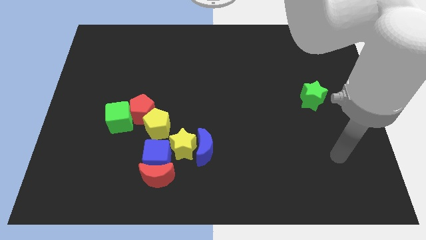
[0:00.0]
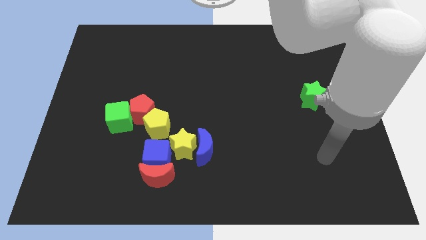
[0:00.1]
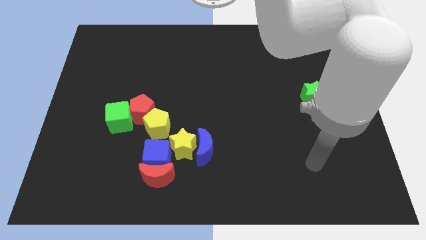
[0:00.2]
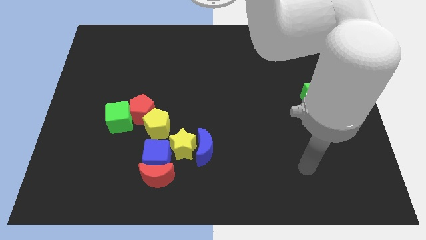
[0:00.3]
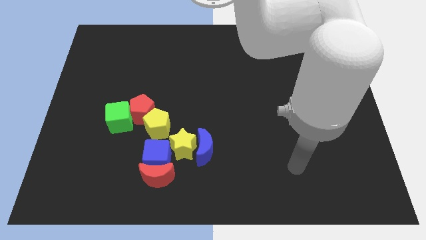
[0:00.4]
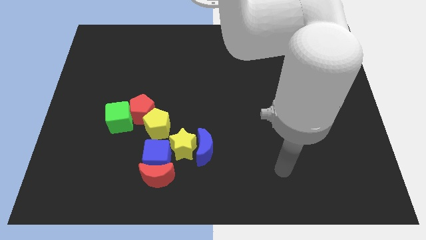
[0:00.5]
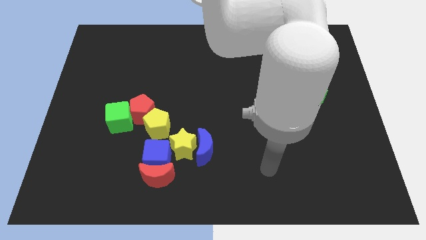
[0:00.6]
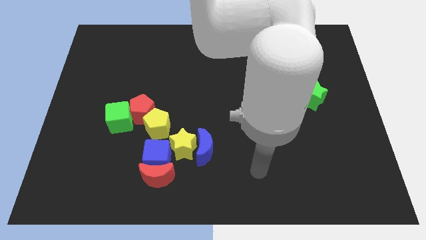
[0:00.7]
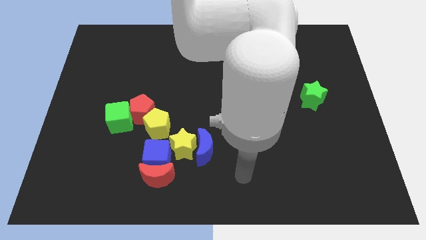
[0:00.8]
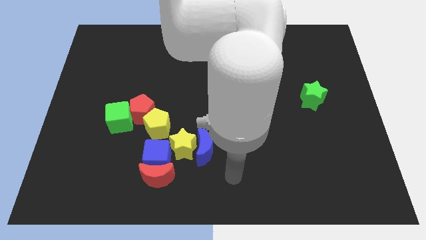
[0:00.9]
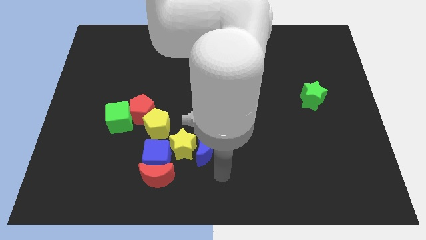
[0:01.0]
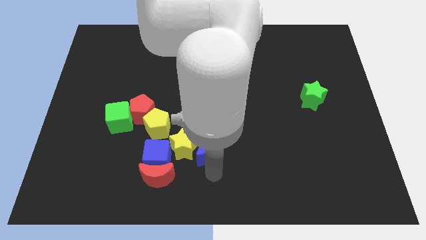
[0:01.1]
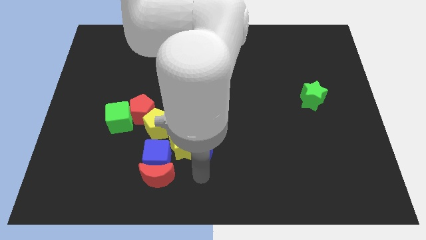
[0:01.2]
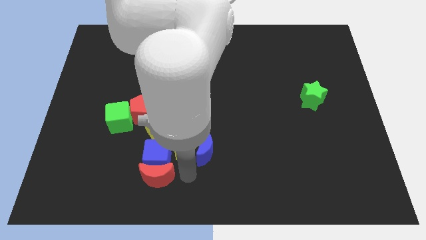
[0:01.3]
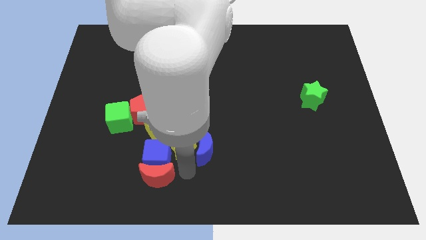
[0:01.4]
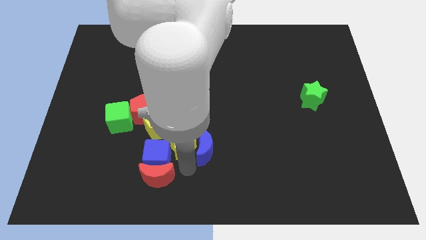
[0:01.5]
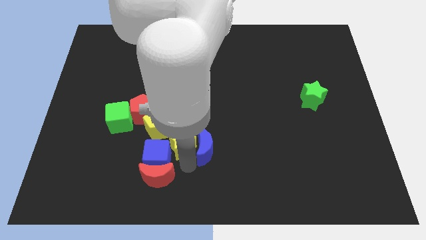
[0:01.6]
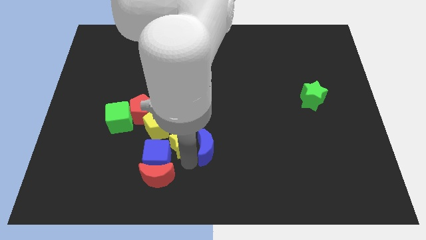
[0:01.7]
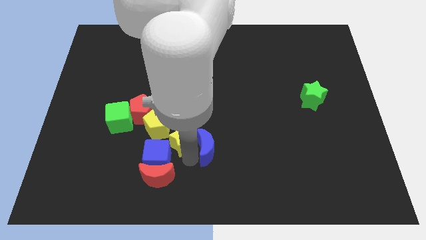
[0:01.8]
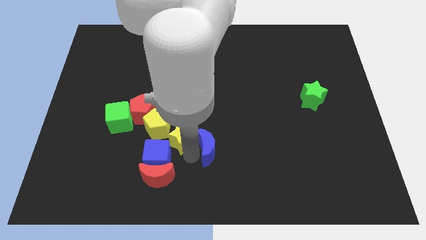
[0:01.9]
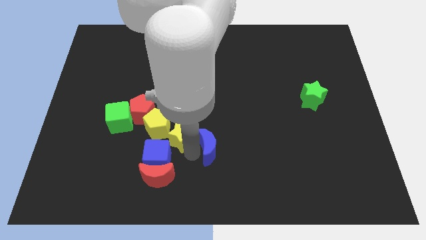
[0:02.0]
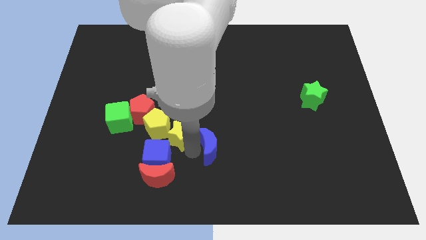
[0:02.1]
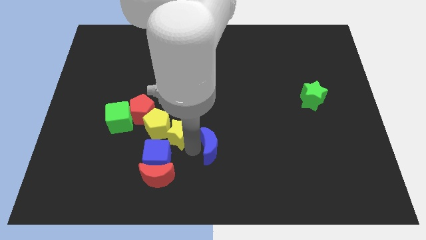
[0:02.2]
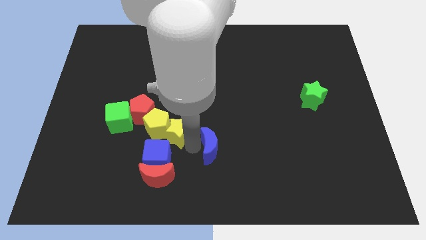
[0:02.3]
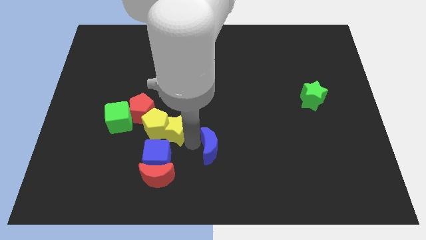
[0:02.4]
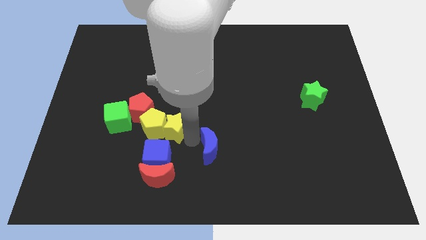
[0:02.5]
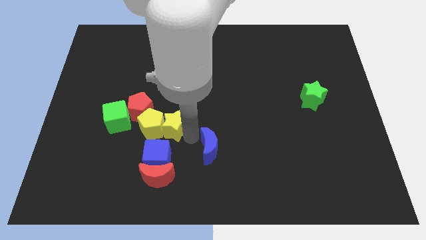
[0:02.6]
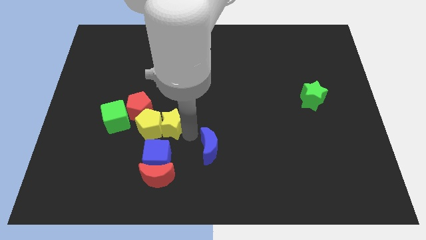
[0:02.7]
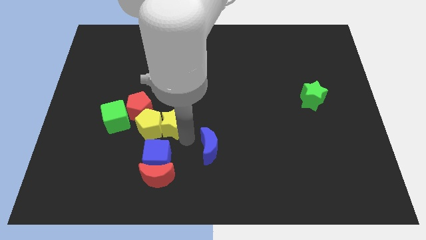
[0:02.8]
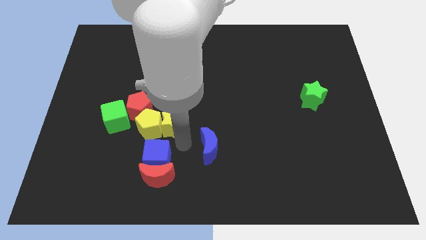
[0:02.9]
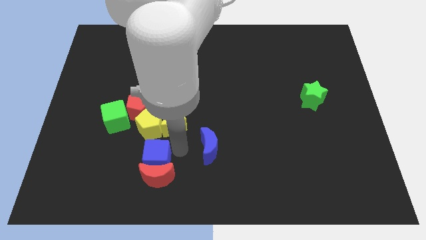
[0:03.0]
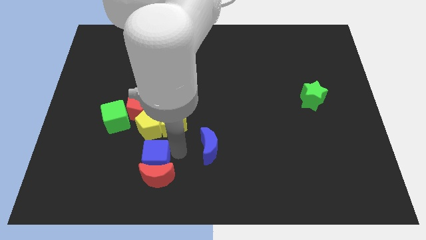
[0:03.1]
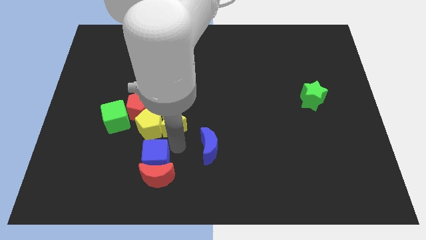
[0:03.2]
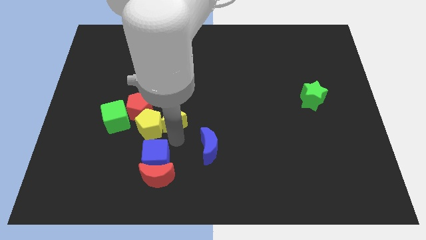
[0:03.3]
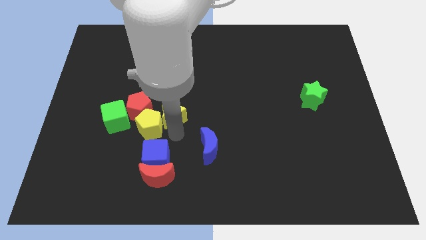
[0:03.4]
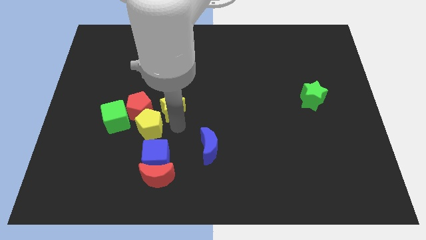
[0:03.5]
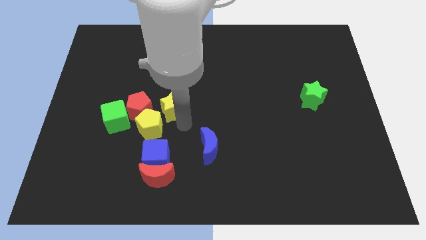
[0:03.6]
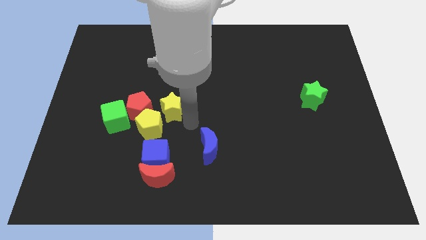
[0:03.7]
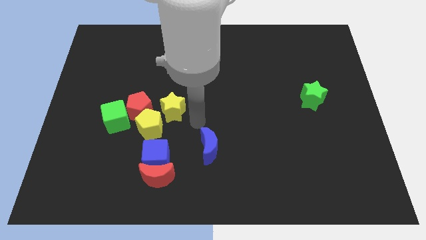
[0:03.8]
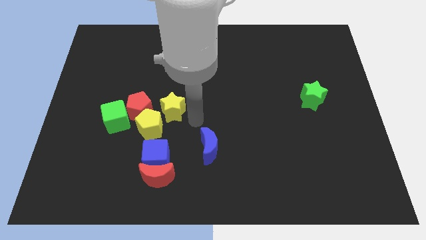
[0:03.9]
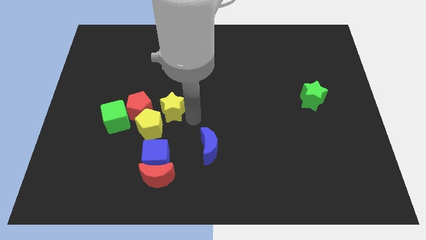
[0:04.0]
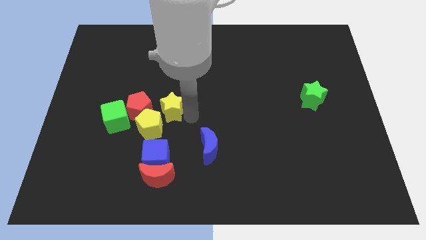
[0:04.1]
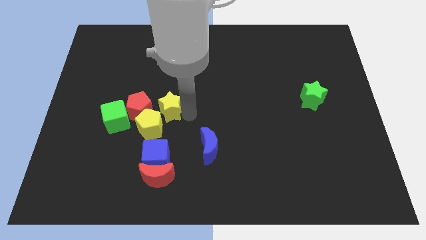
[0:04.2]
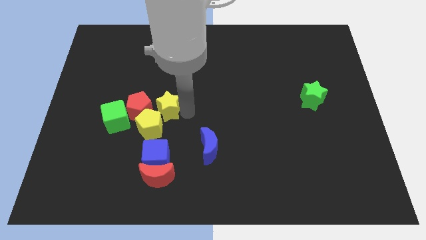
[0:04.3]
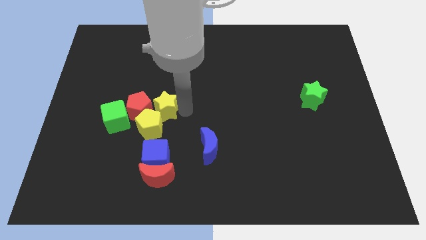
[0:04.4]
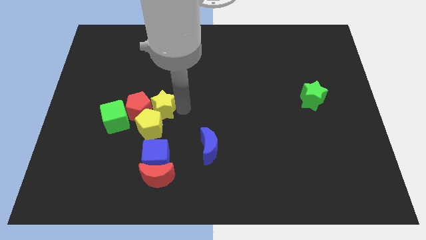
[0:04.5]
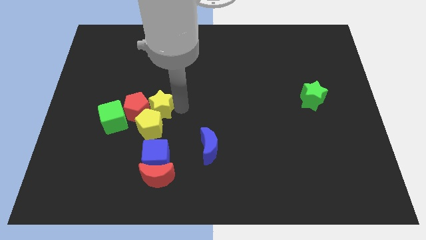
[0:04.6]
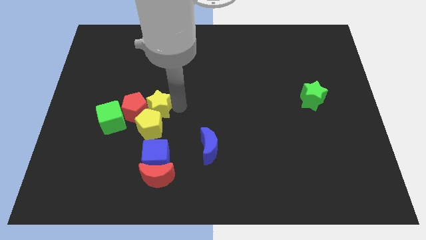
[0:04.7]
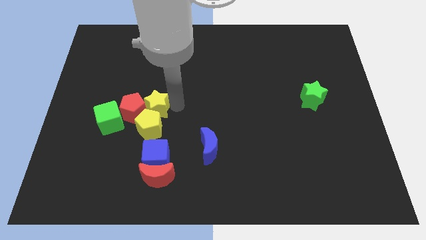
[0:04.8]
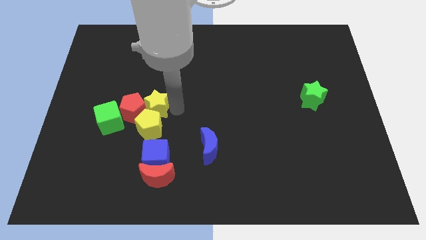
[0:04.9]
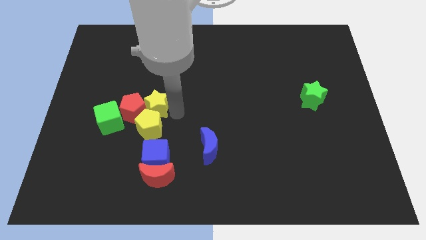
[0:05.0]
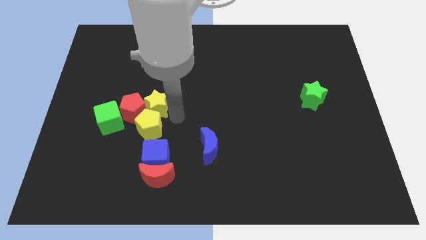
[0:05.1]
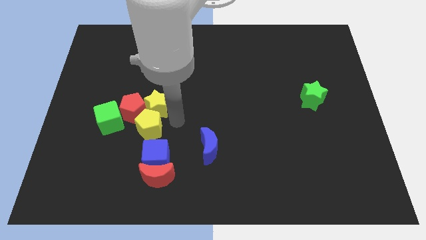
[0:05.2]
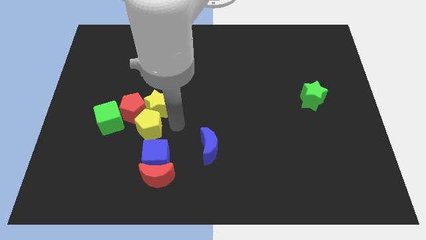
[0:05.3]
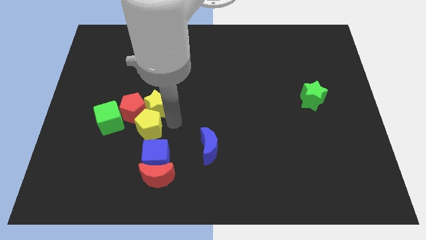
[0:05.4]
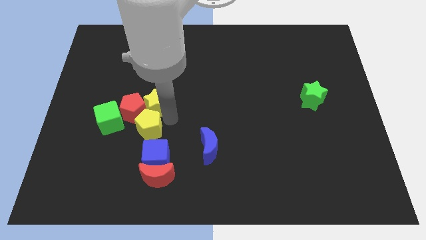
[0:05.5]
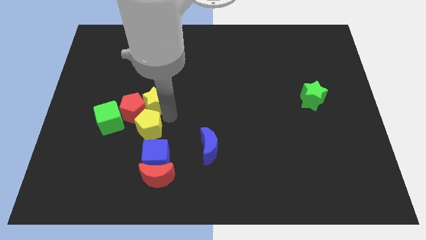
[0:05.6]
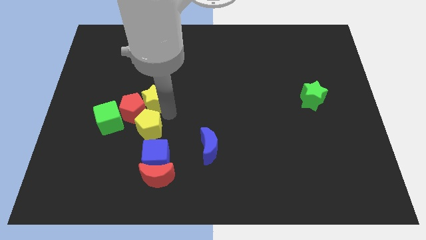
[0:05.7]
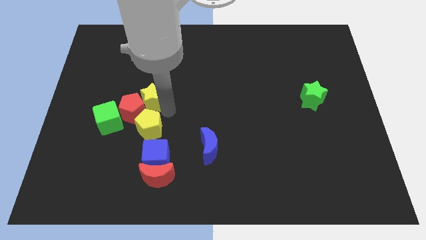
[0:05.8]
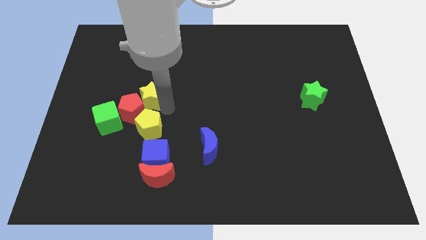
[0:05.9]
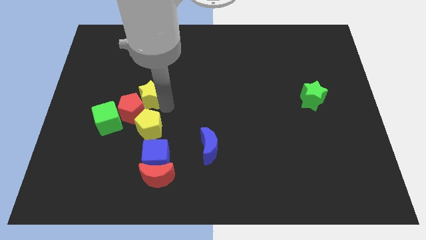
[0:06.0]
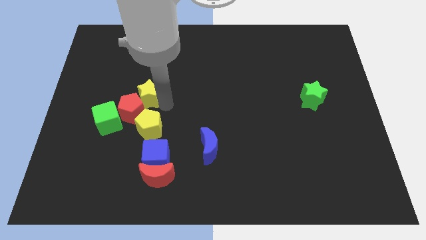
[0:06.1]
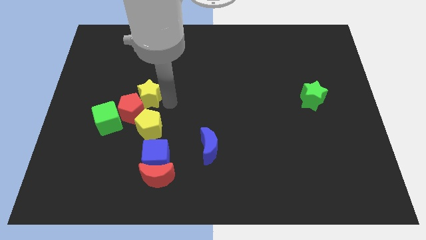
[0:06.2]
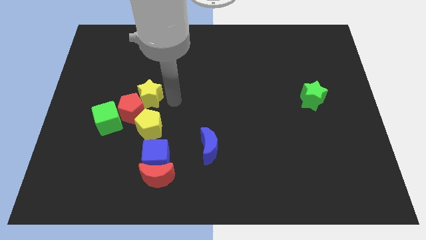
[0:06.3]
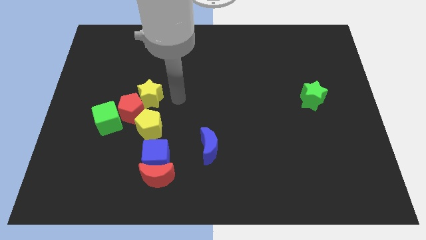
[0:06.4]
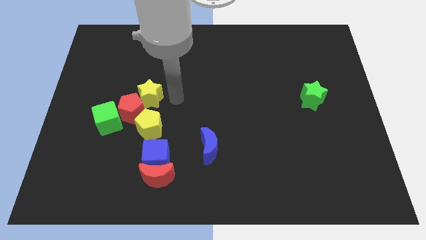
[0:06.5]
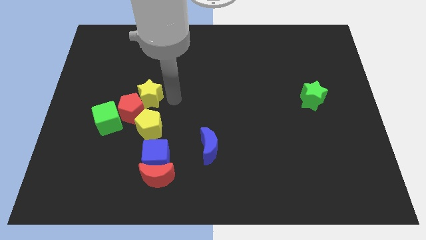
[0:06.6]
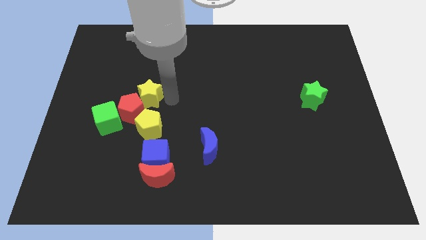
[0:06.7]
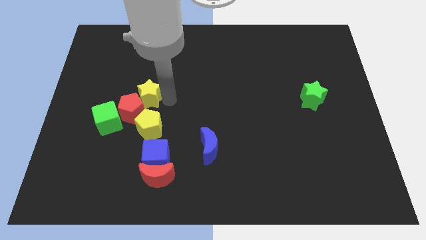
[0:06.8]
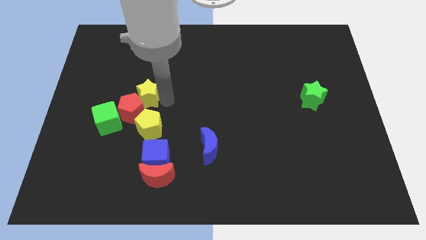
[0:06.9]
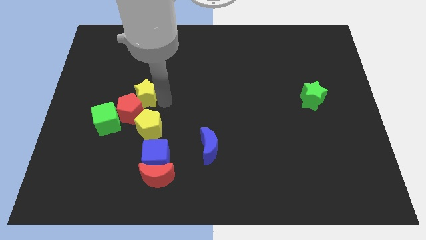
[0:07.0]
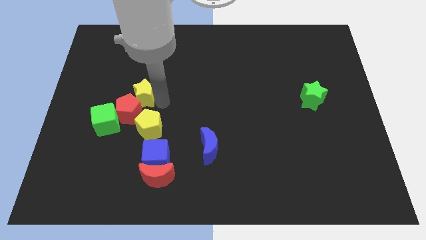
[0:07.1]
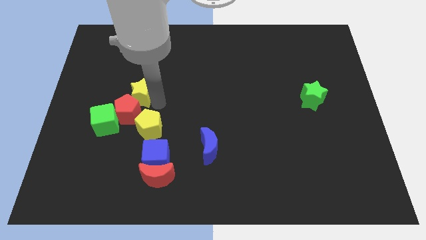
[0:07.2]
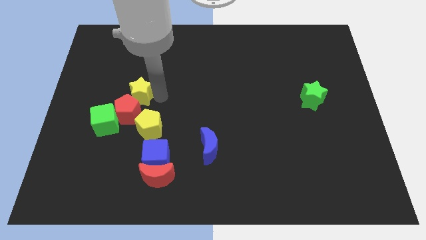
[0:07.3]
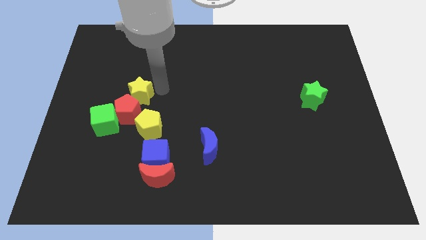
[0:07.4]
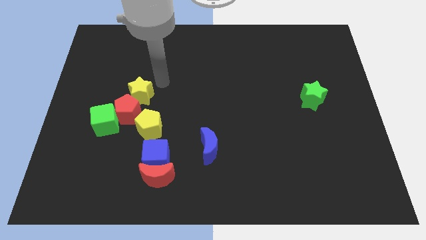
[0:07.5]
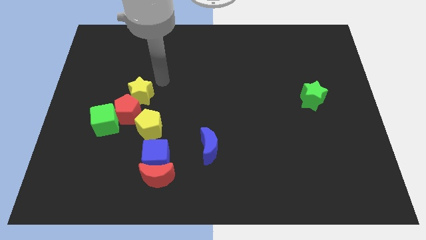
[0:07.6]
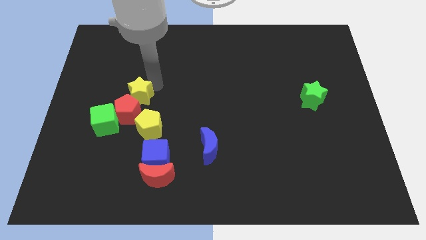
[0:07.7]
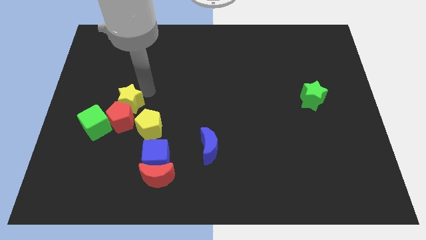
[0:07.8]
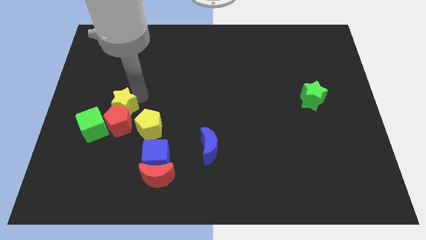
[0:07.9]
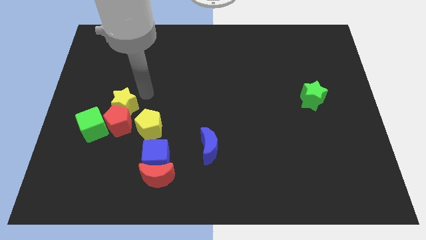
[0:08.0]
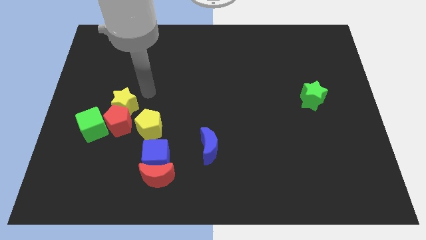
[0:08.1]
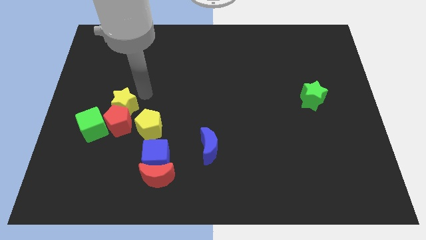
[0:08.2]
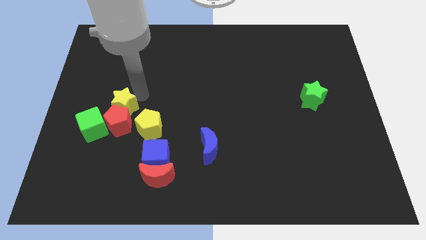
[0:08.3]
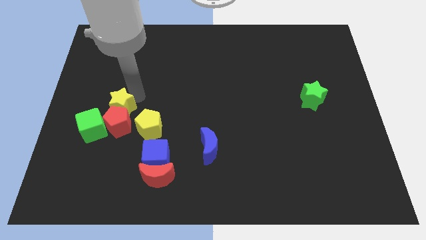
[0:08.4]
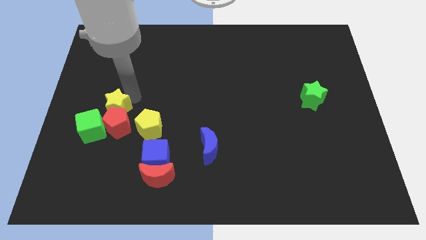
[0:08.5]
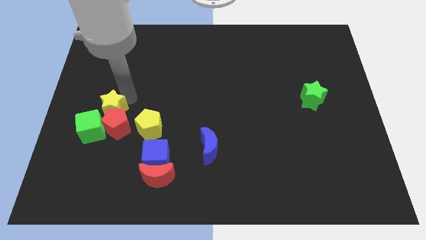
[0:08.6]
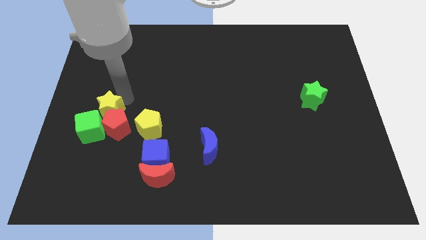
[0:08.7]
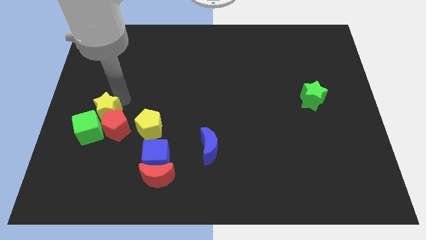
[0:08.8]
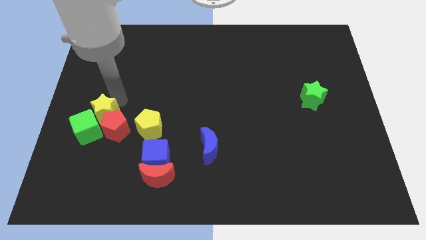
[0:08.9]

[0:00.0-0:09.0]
move the yellow star close to the green cube
